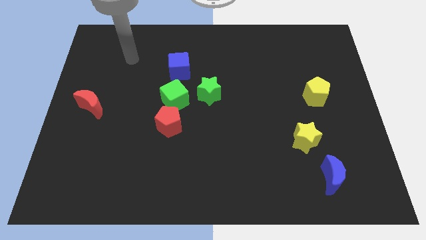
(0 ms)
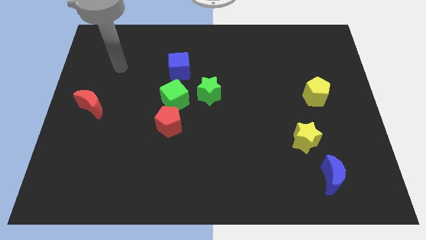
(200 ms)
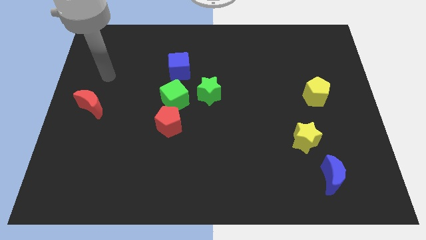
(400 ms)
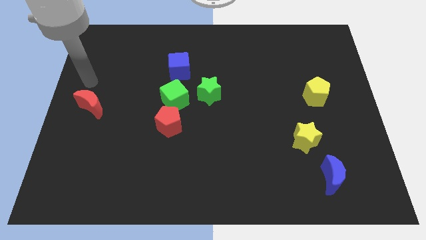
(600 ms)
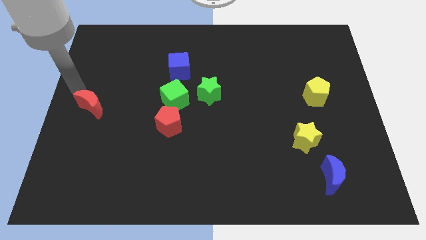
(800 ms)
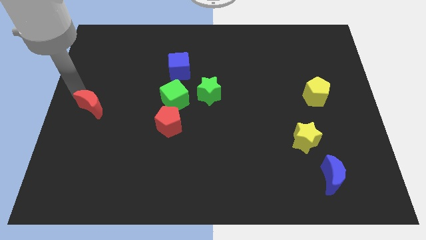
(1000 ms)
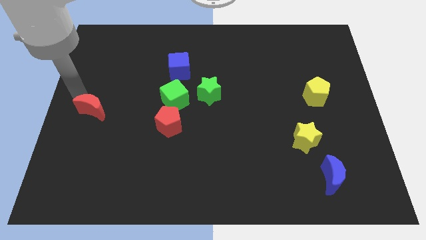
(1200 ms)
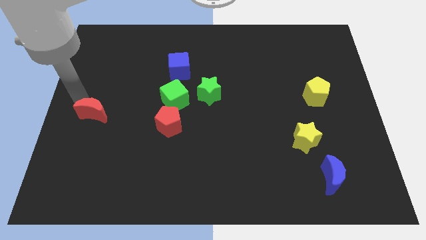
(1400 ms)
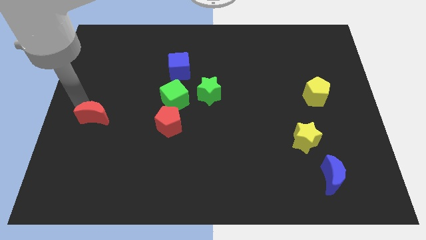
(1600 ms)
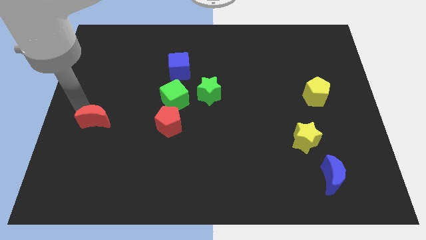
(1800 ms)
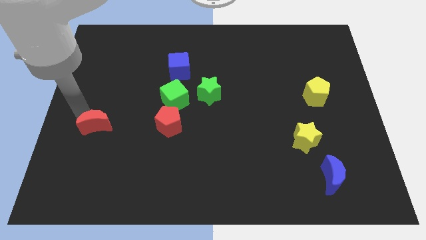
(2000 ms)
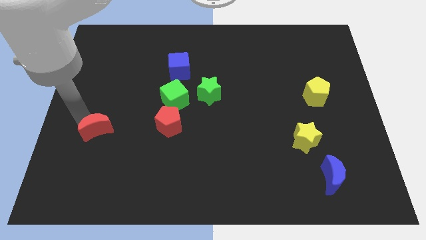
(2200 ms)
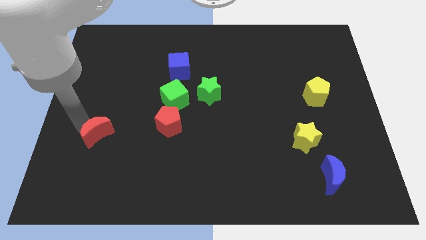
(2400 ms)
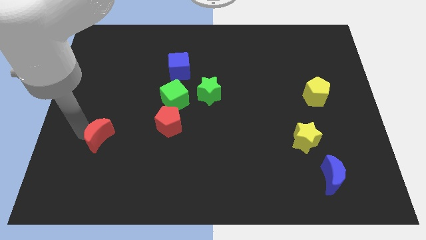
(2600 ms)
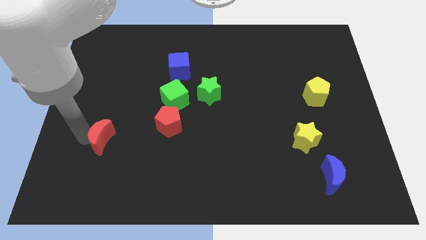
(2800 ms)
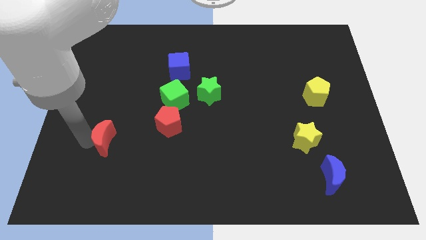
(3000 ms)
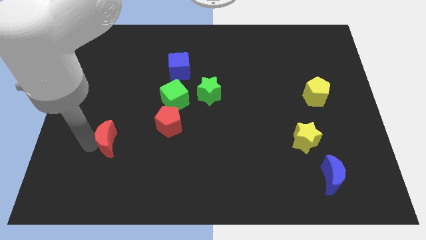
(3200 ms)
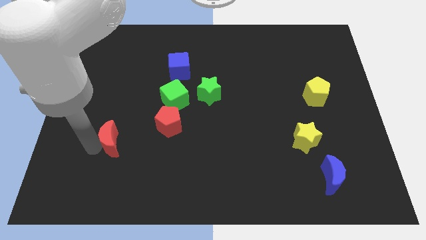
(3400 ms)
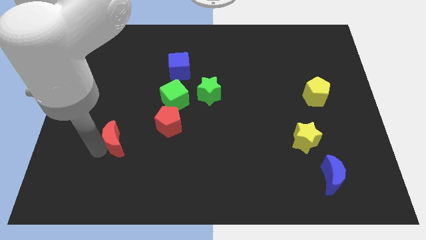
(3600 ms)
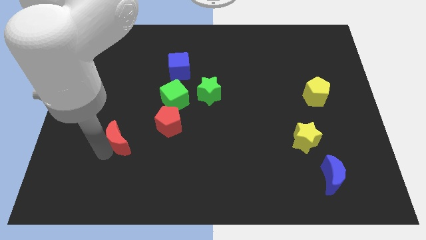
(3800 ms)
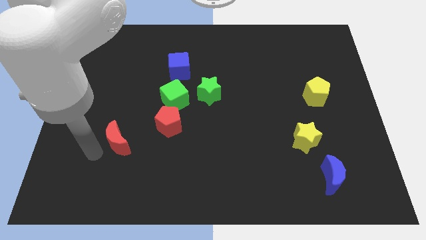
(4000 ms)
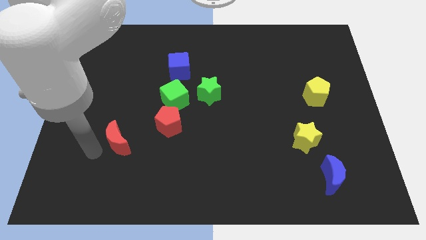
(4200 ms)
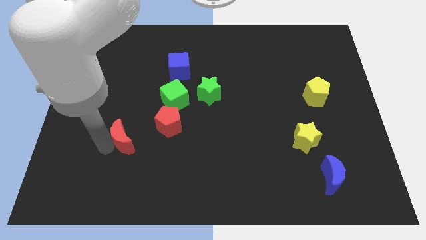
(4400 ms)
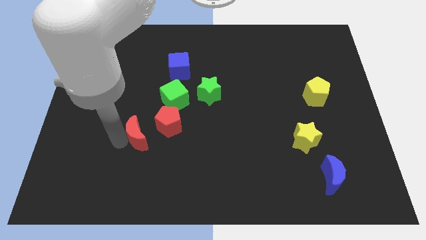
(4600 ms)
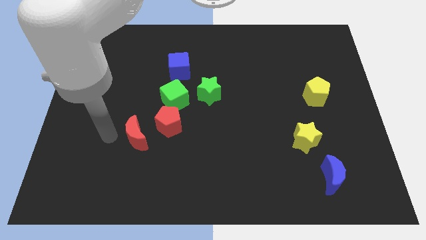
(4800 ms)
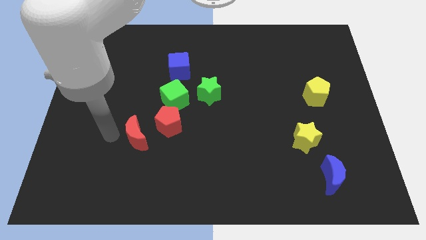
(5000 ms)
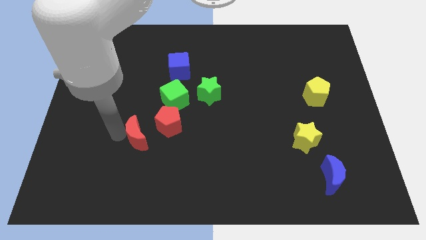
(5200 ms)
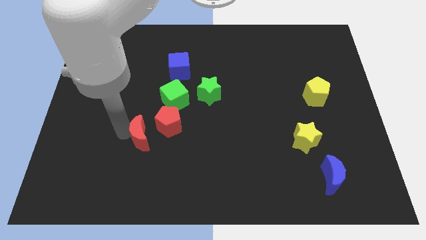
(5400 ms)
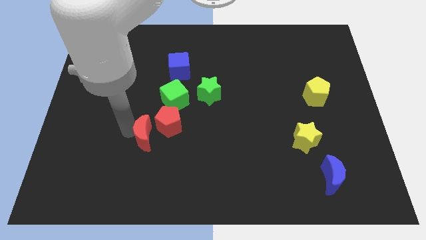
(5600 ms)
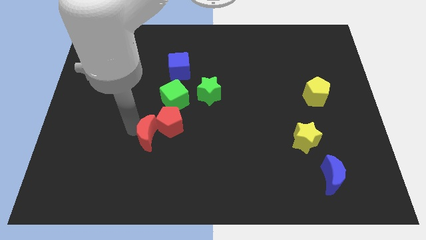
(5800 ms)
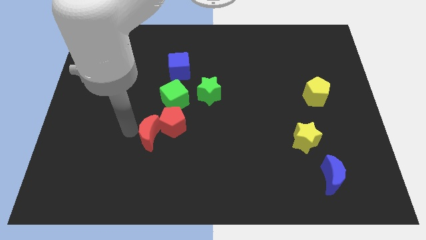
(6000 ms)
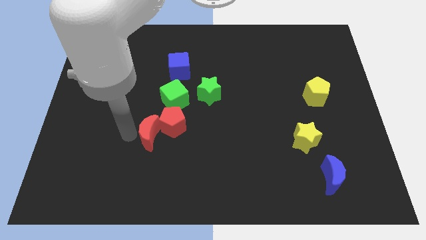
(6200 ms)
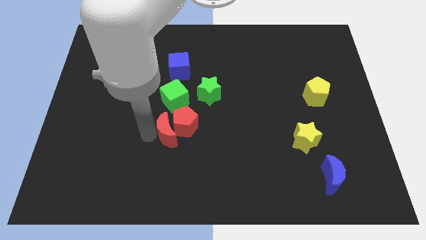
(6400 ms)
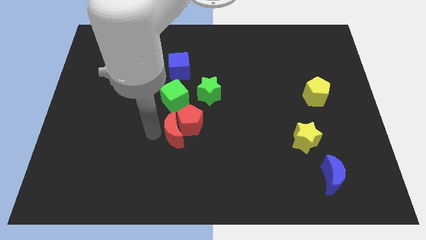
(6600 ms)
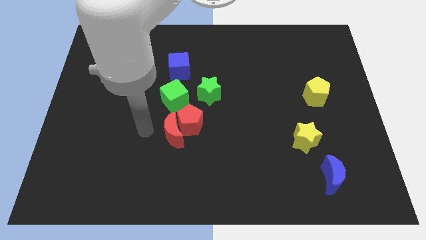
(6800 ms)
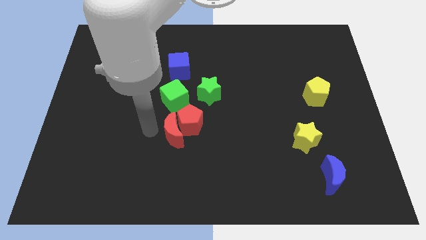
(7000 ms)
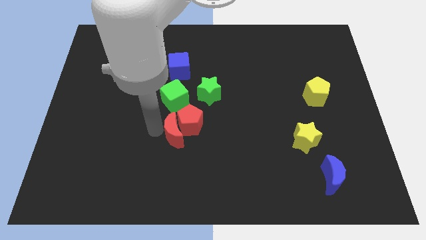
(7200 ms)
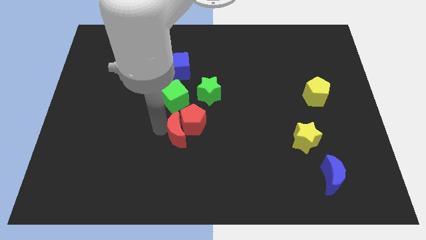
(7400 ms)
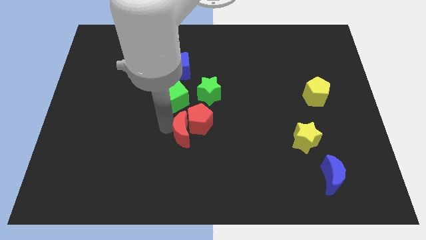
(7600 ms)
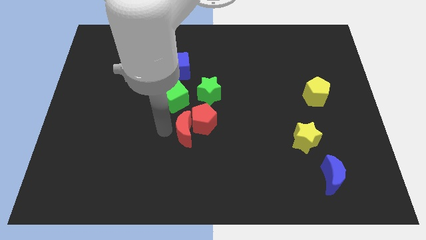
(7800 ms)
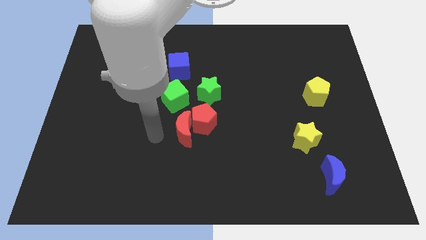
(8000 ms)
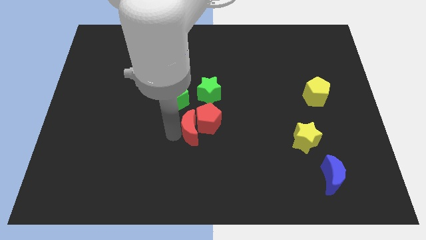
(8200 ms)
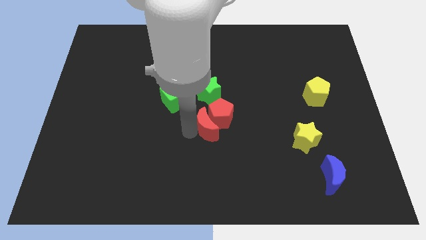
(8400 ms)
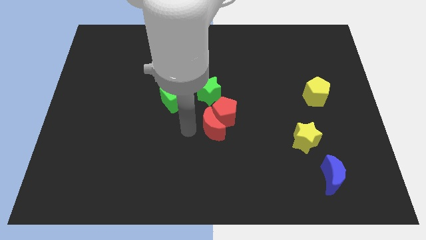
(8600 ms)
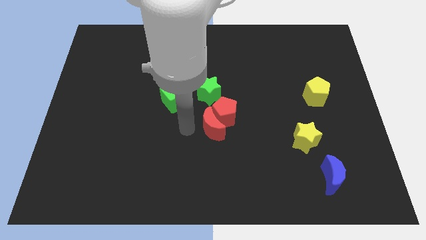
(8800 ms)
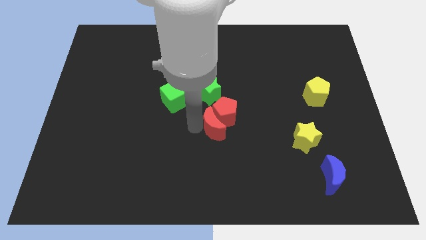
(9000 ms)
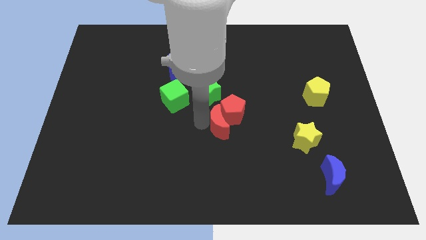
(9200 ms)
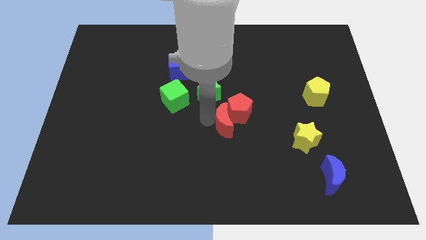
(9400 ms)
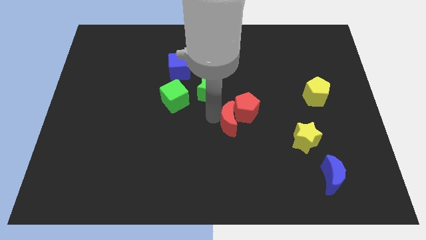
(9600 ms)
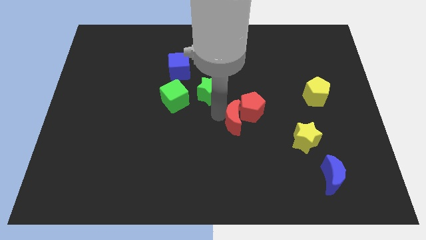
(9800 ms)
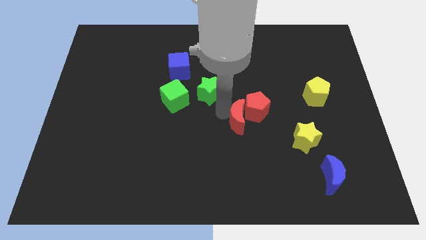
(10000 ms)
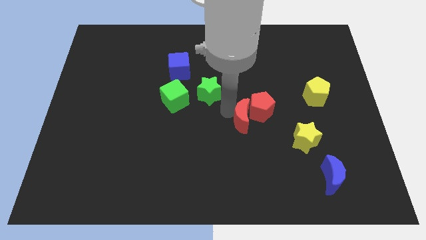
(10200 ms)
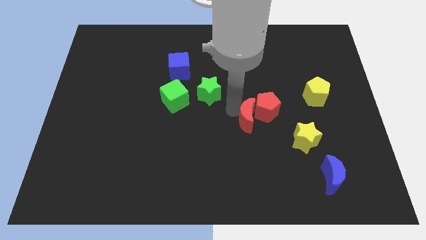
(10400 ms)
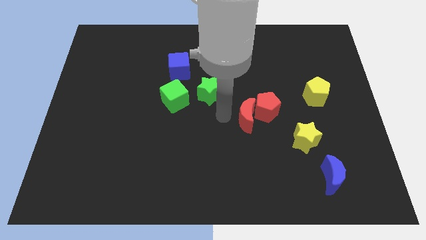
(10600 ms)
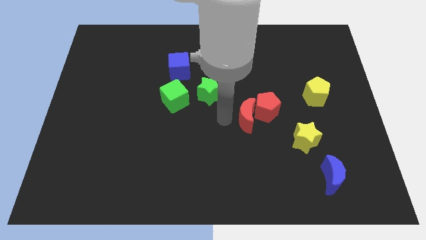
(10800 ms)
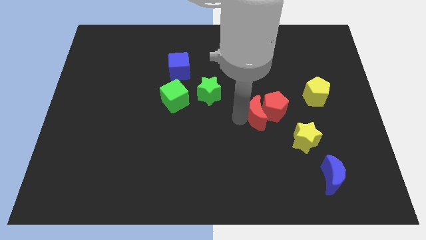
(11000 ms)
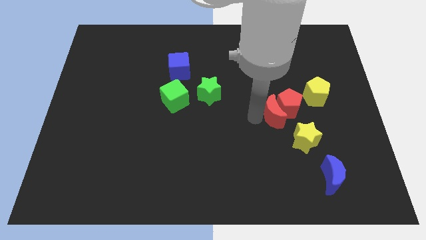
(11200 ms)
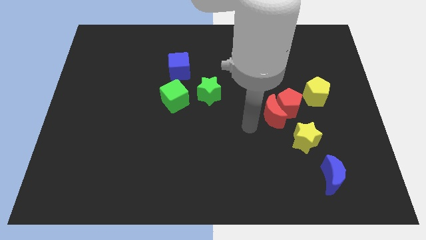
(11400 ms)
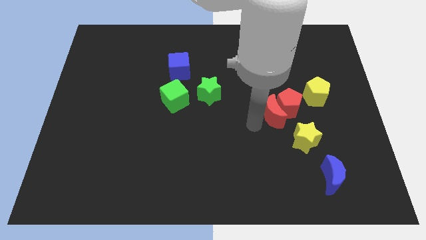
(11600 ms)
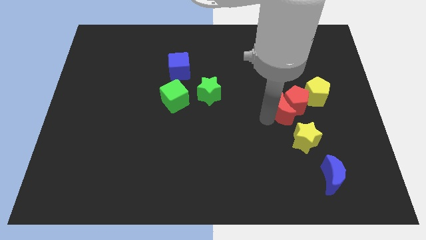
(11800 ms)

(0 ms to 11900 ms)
move the red moon above the yellow star

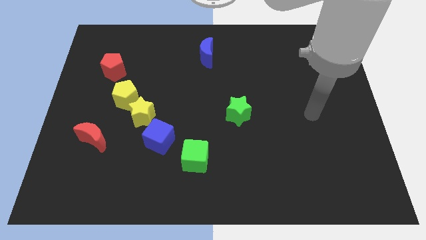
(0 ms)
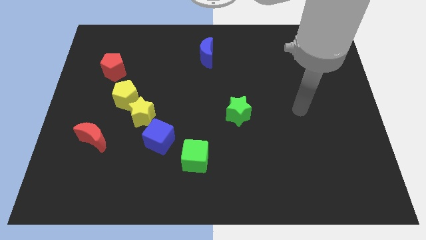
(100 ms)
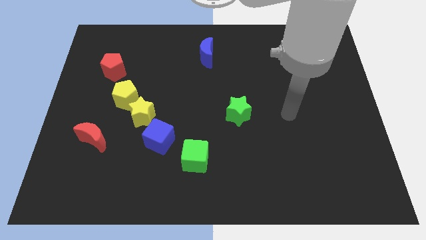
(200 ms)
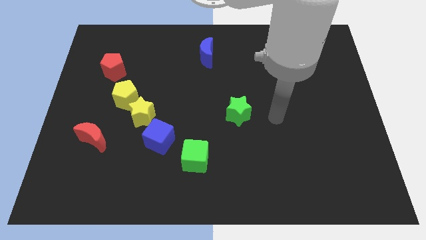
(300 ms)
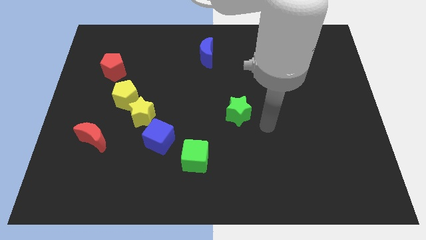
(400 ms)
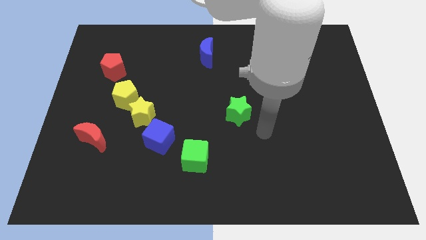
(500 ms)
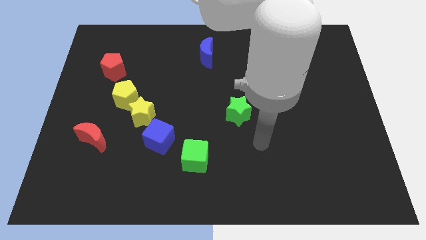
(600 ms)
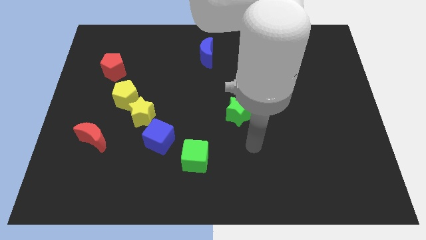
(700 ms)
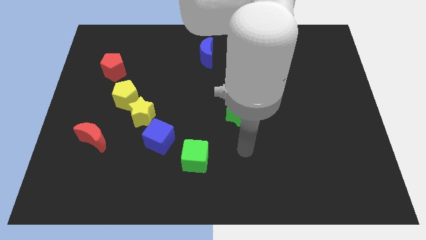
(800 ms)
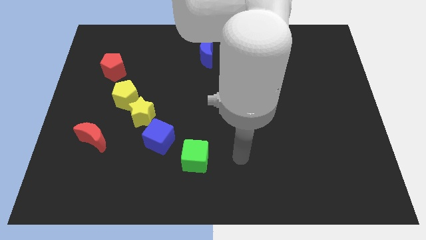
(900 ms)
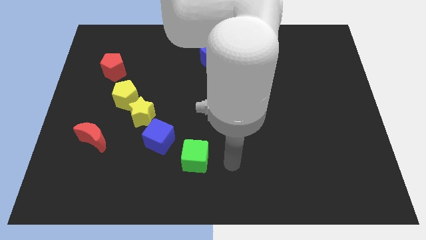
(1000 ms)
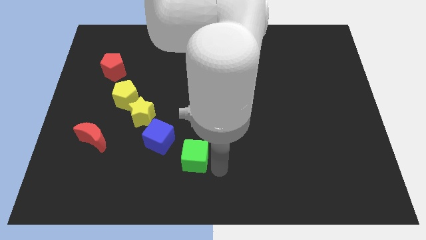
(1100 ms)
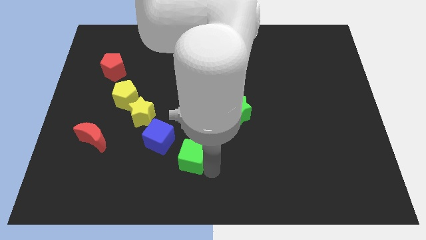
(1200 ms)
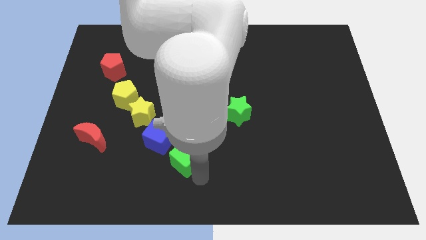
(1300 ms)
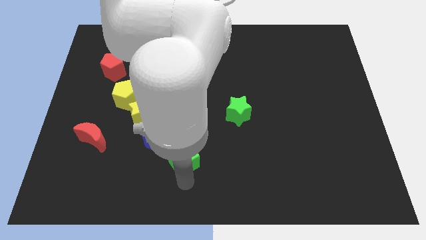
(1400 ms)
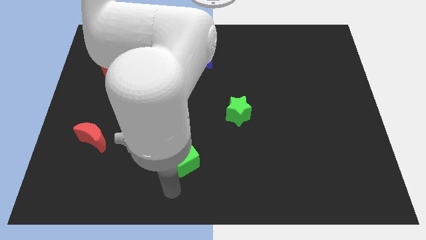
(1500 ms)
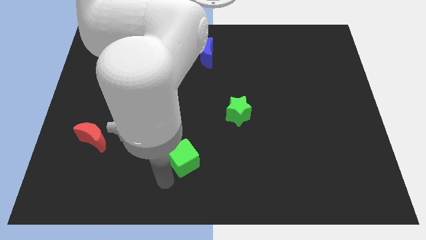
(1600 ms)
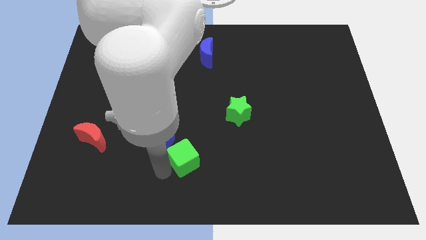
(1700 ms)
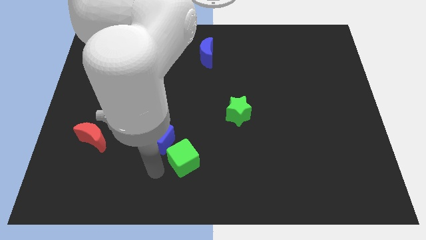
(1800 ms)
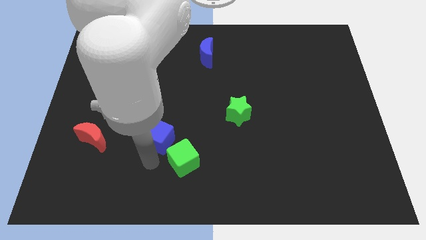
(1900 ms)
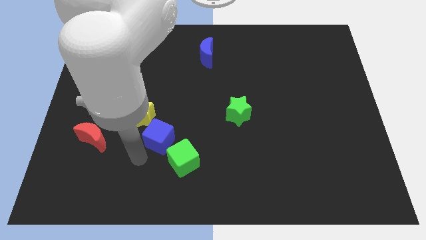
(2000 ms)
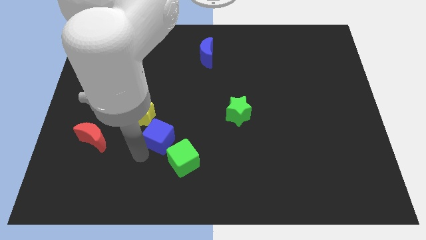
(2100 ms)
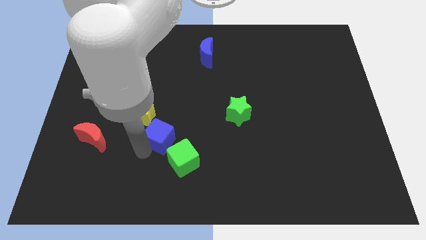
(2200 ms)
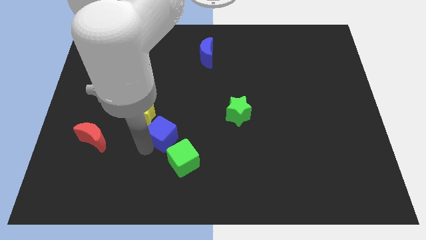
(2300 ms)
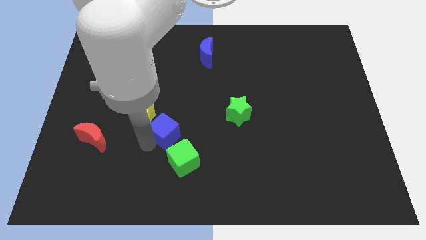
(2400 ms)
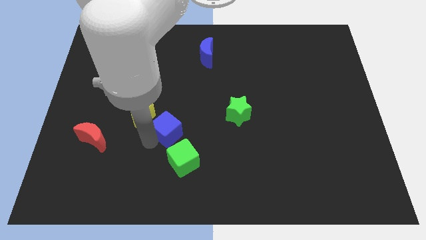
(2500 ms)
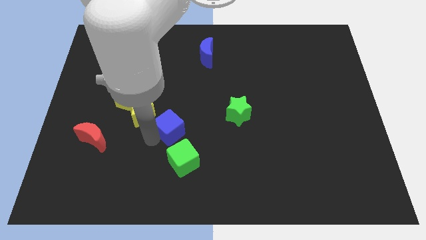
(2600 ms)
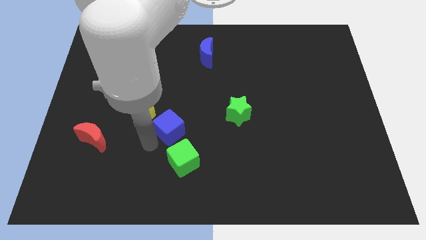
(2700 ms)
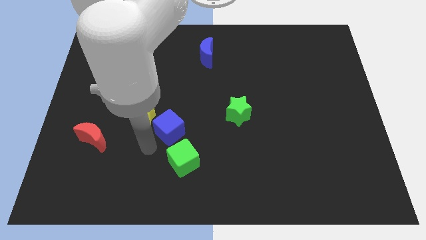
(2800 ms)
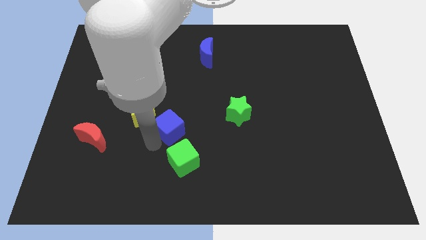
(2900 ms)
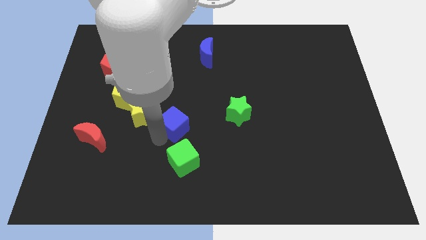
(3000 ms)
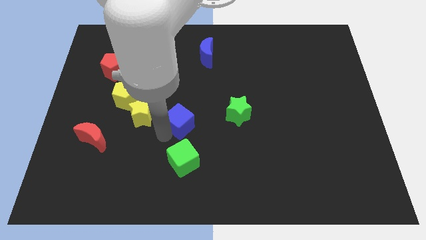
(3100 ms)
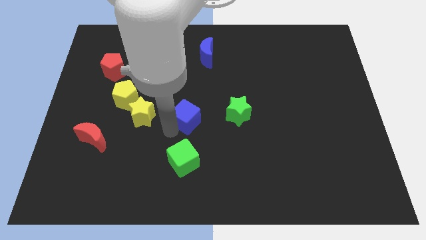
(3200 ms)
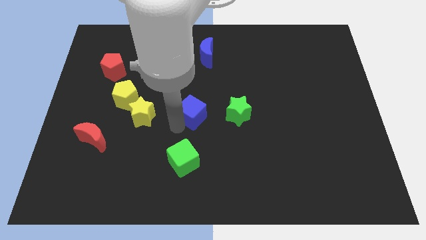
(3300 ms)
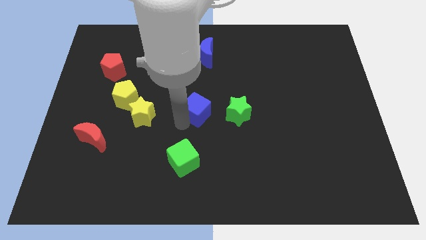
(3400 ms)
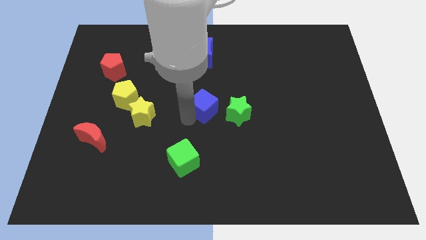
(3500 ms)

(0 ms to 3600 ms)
put the blue cube to the top left side of the green star
